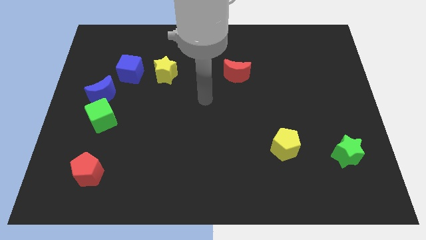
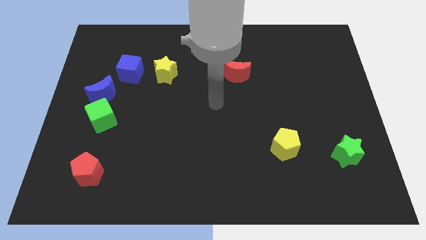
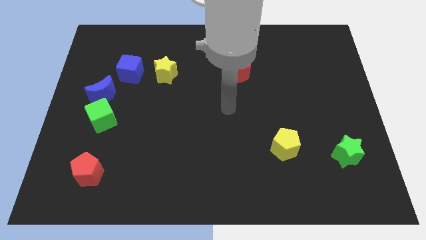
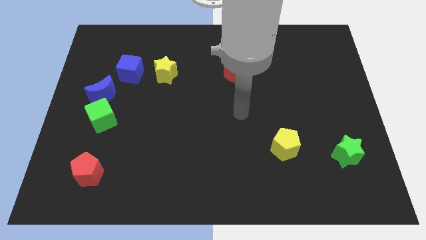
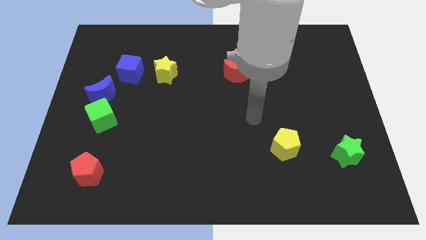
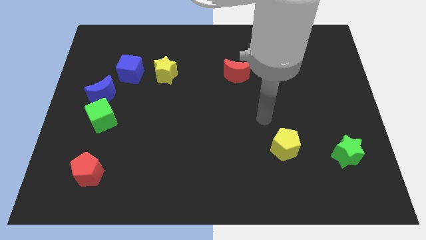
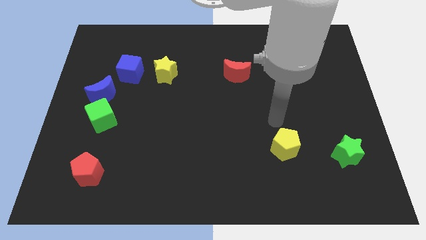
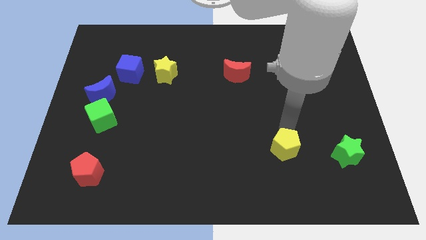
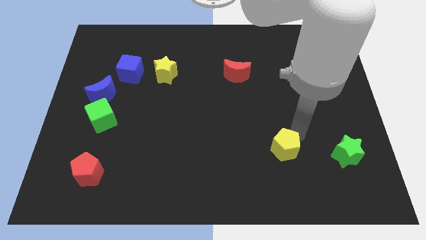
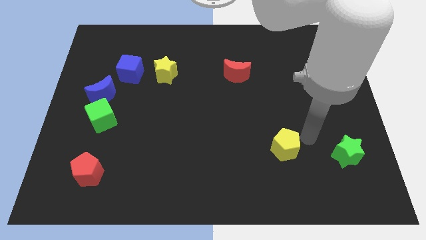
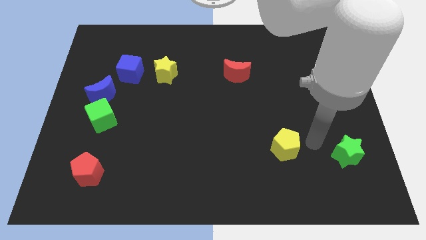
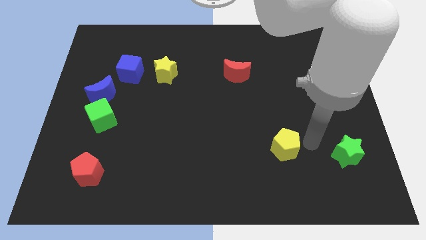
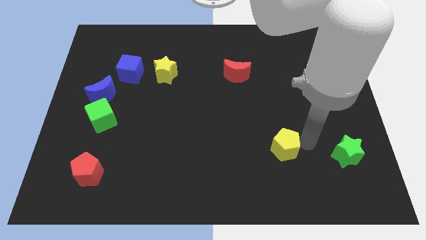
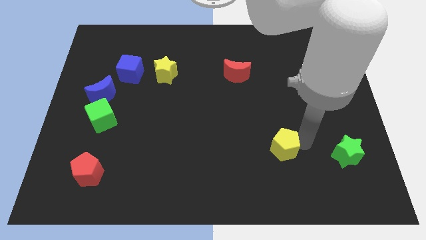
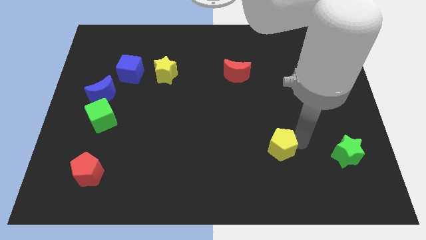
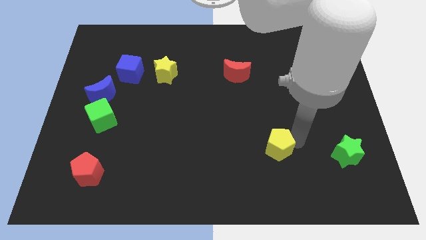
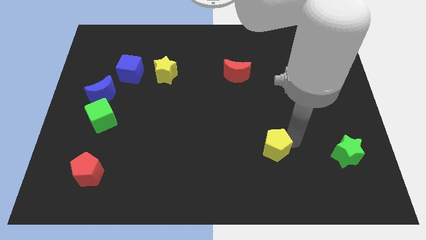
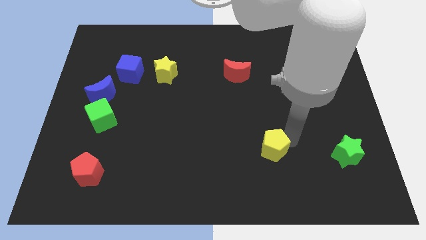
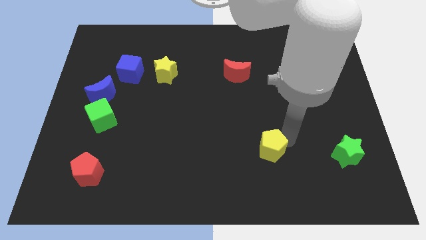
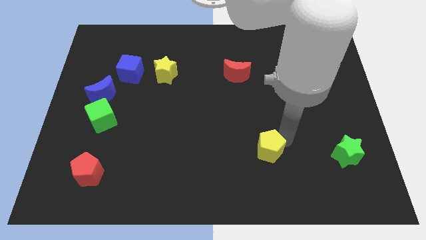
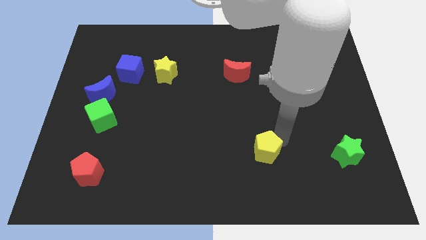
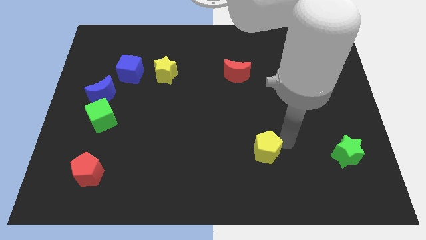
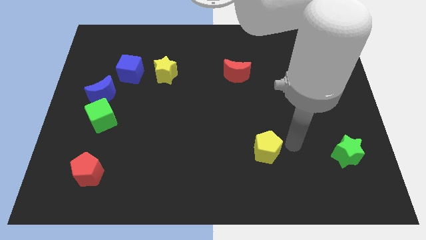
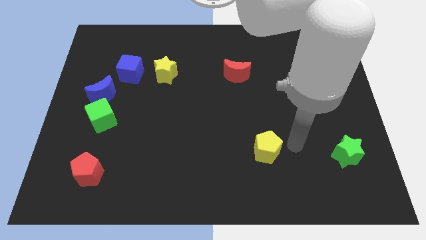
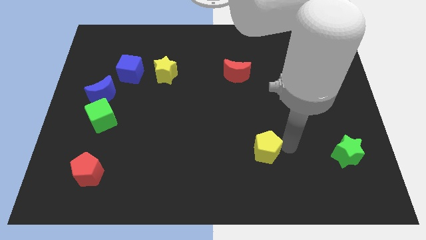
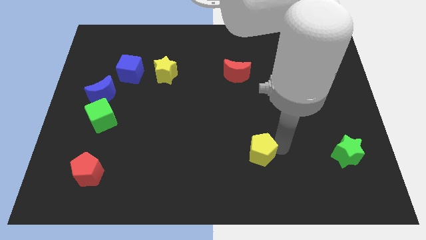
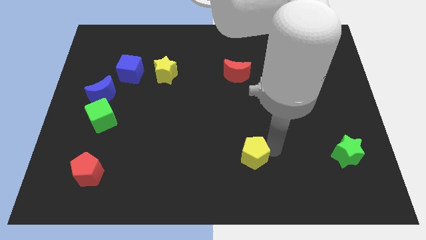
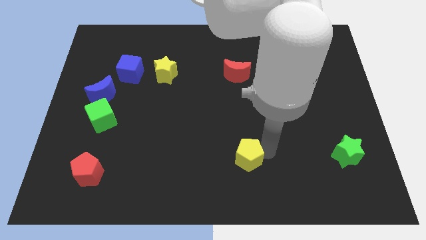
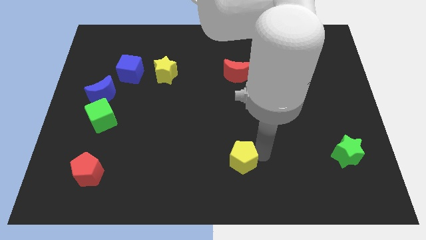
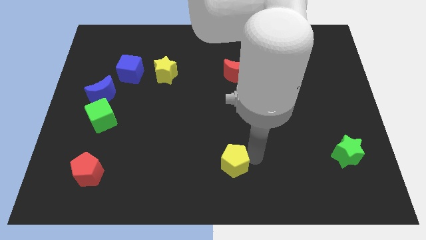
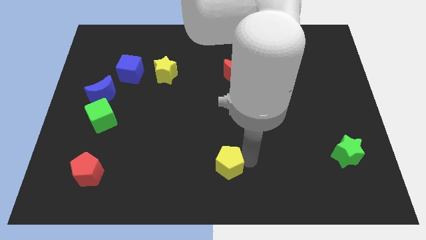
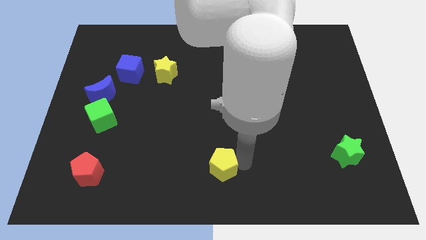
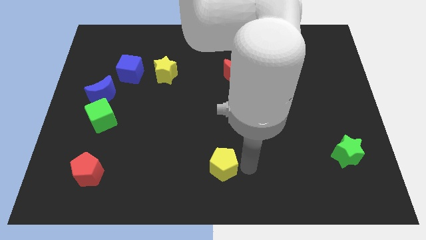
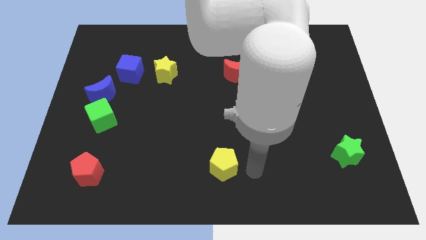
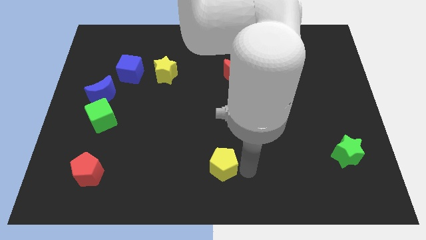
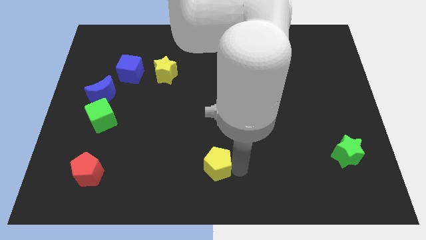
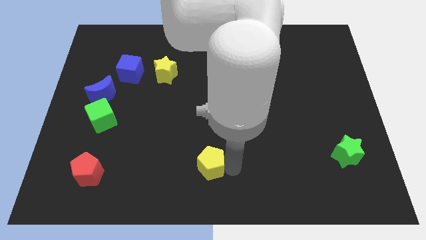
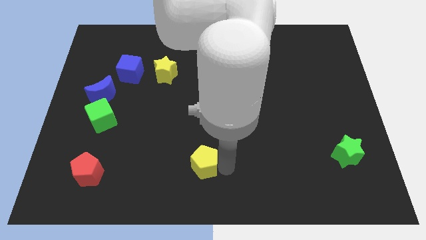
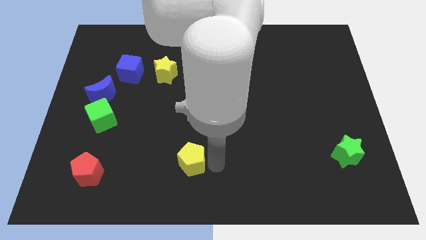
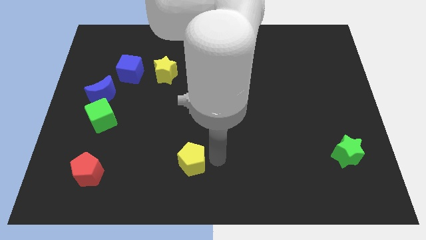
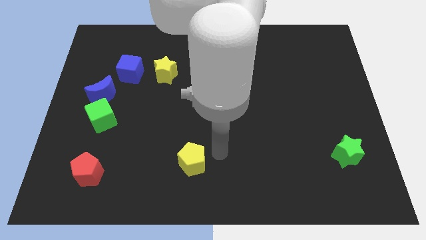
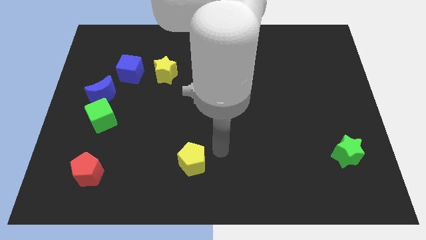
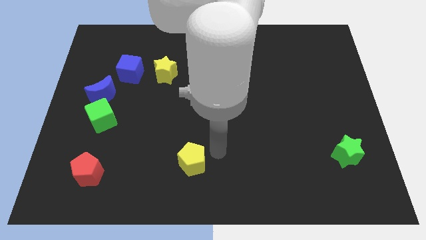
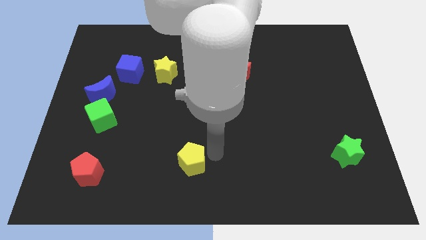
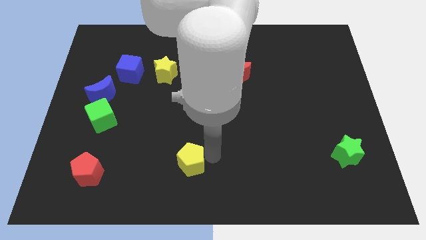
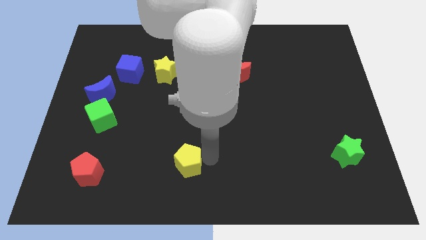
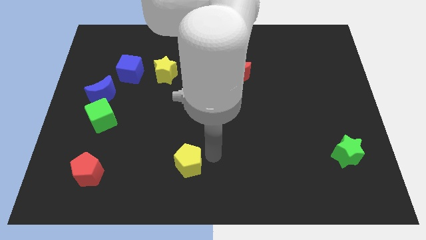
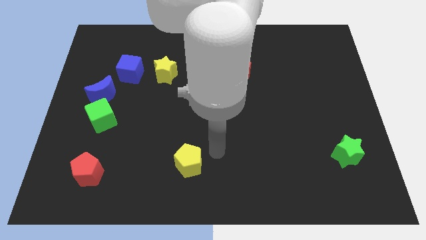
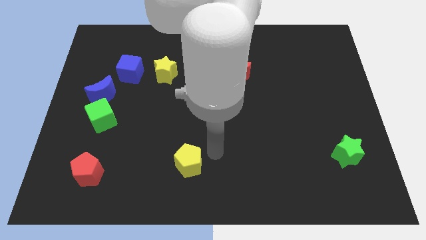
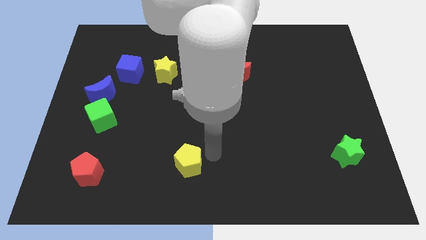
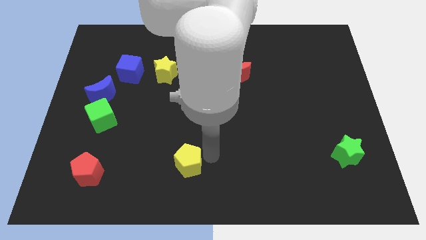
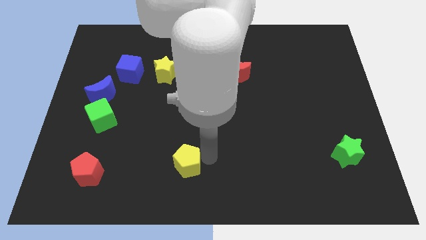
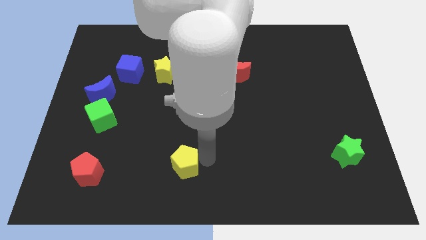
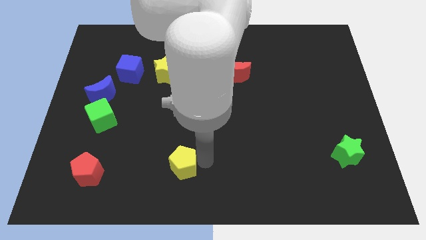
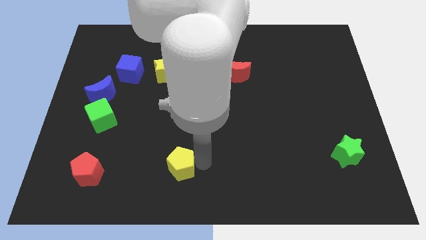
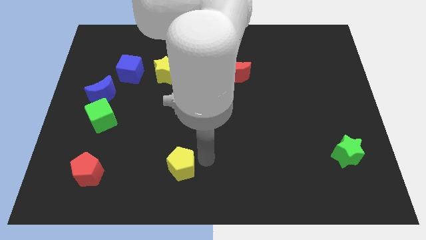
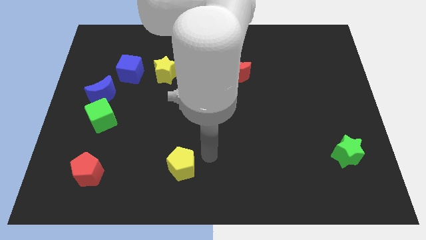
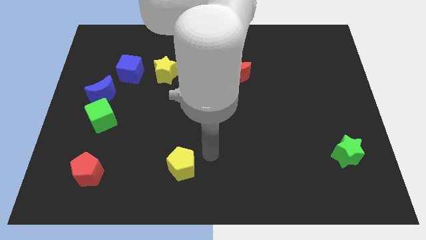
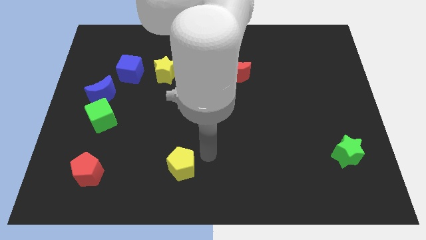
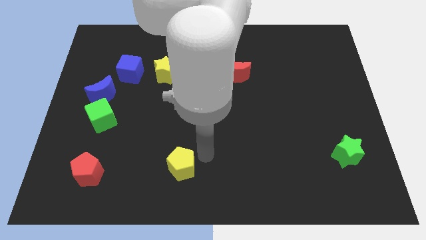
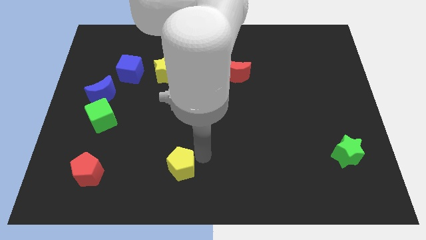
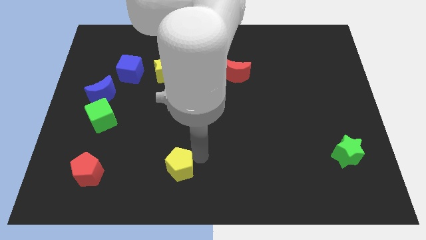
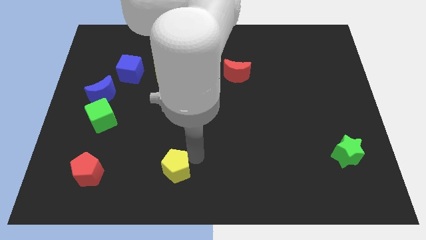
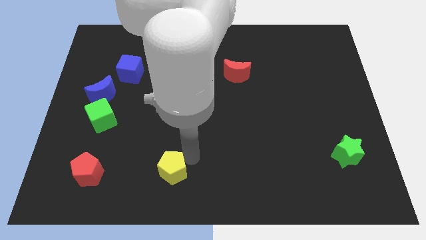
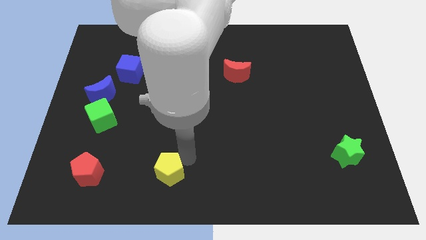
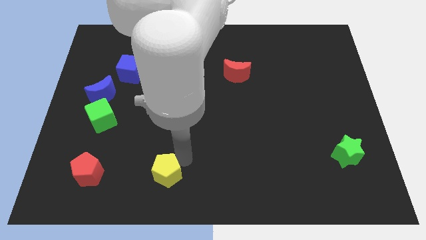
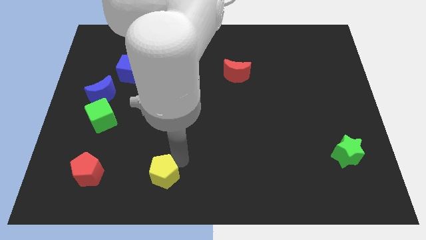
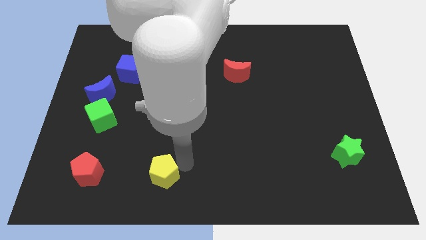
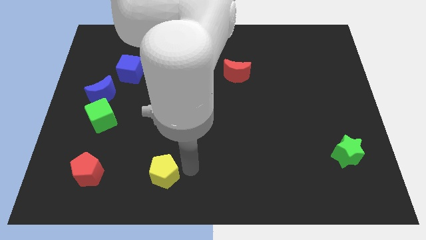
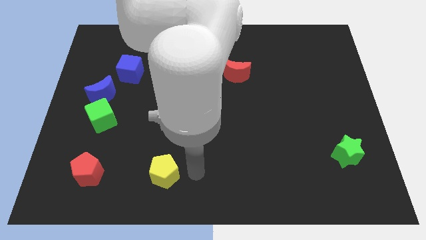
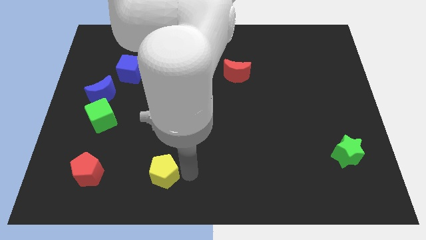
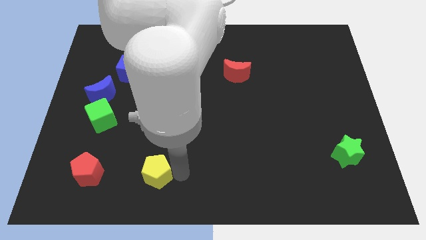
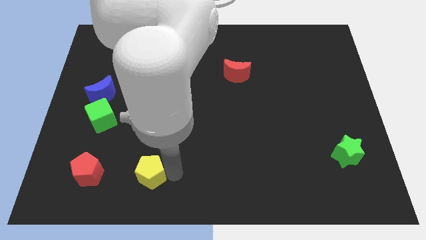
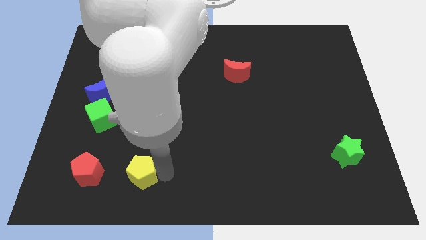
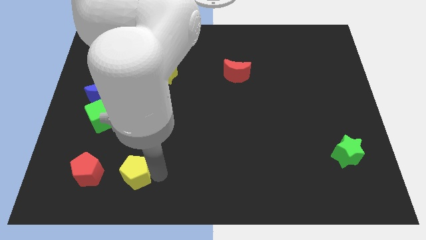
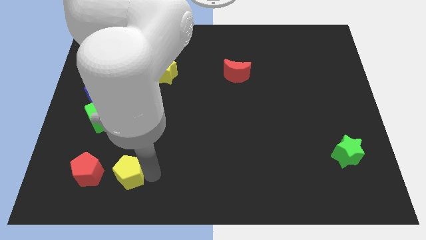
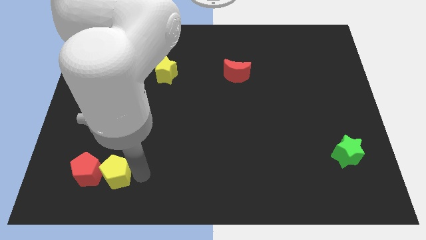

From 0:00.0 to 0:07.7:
move the yellow pentagon towards the red pentagon
